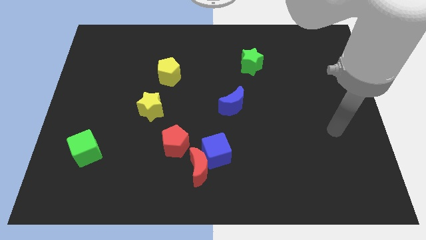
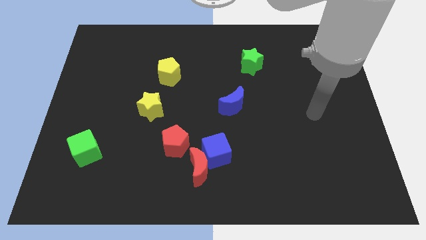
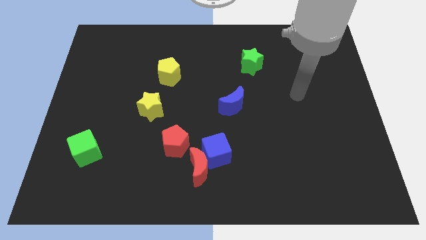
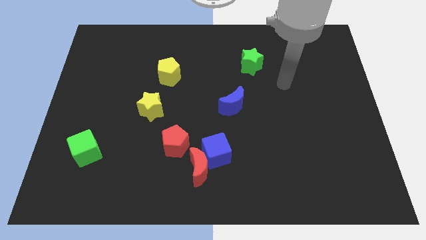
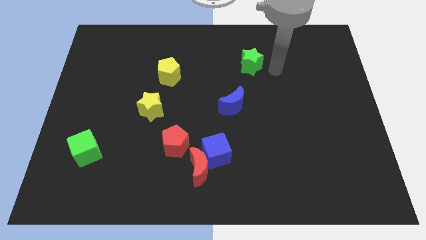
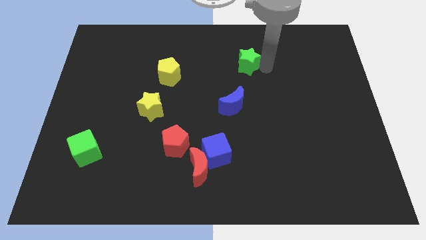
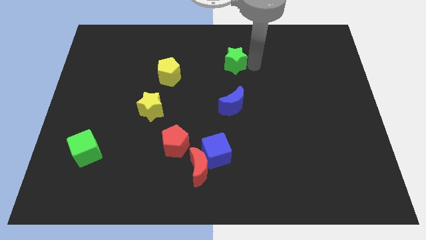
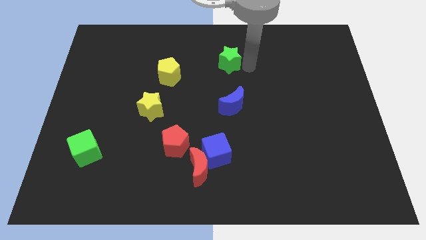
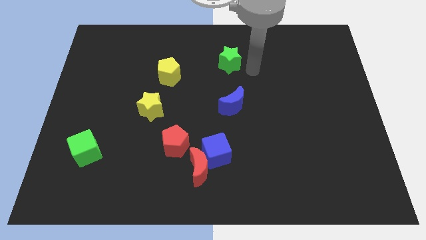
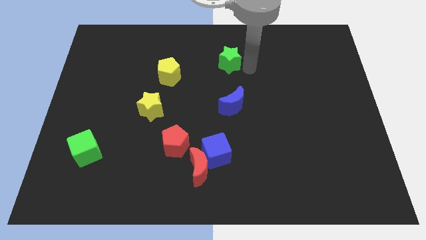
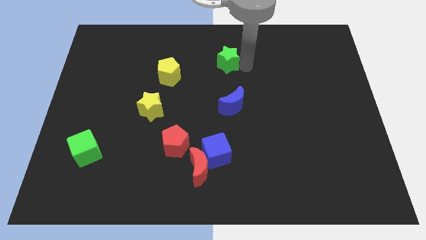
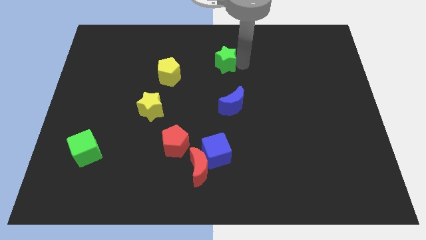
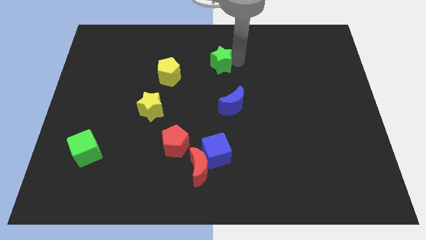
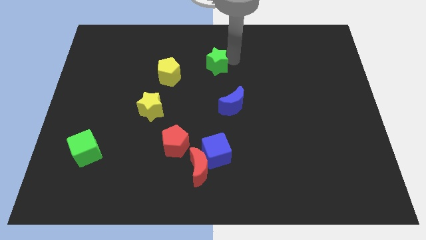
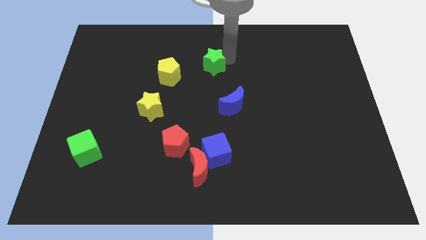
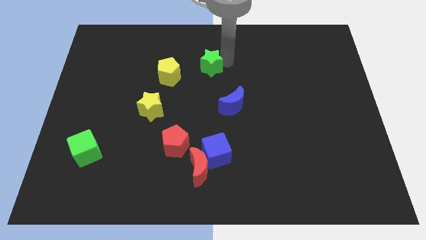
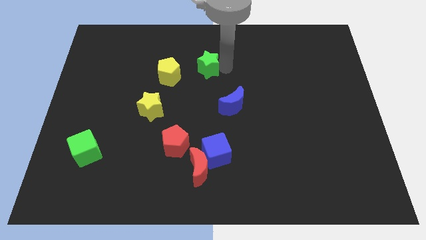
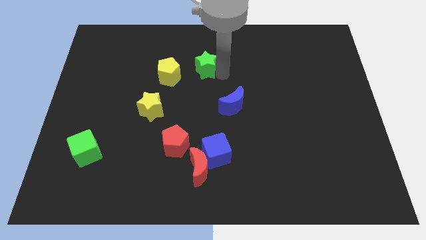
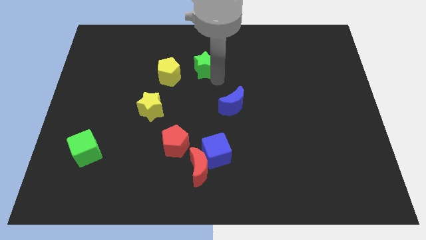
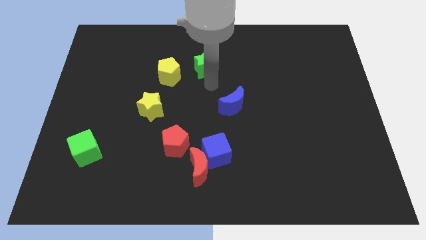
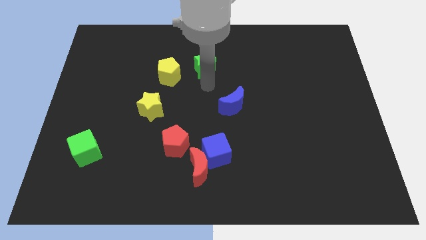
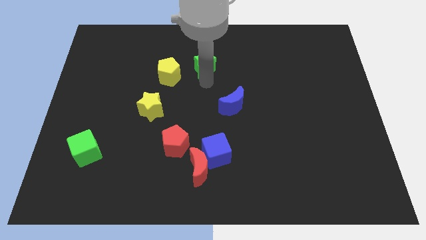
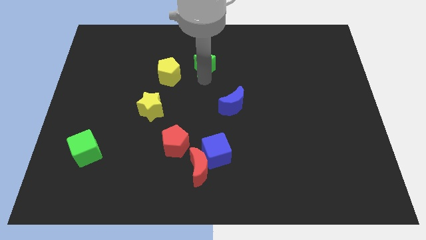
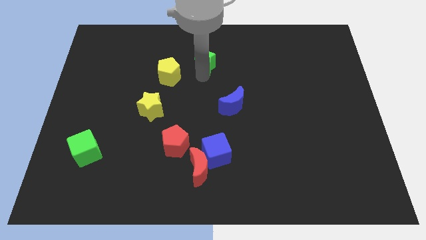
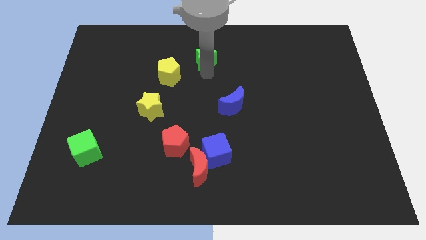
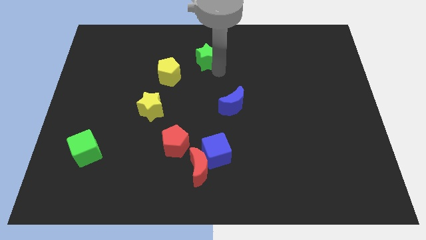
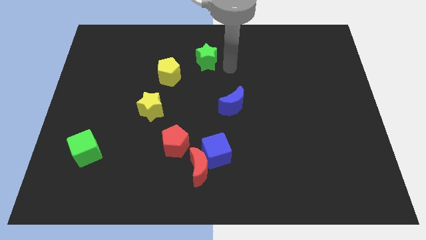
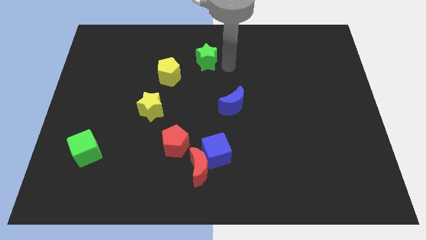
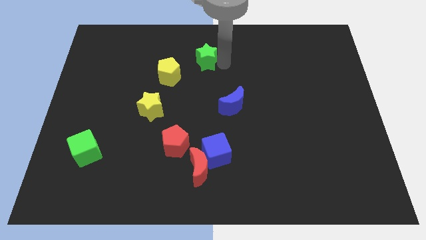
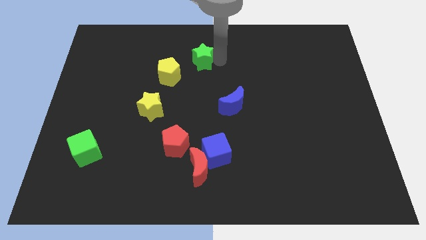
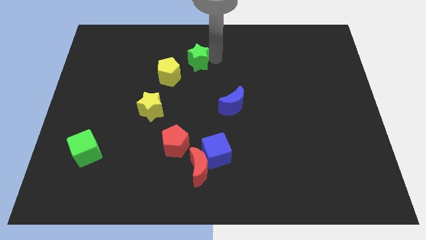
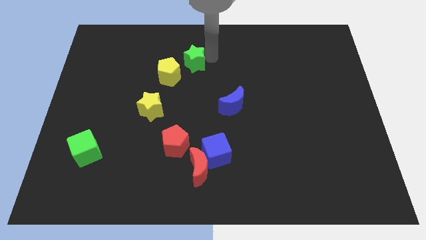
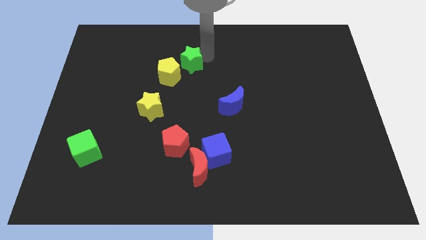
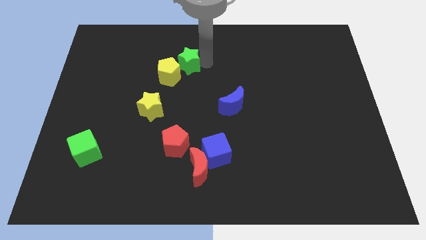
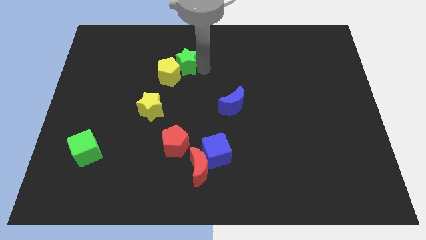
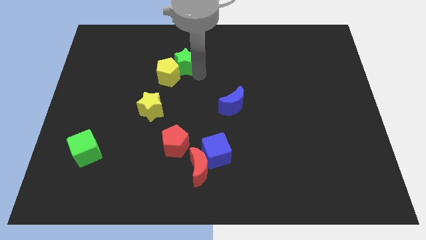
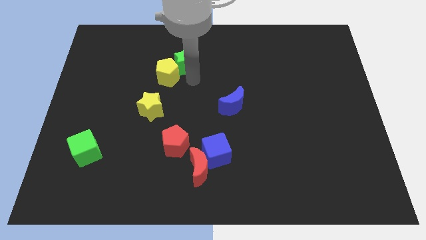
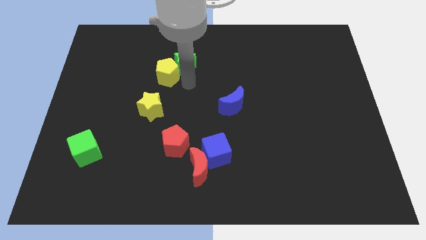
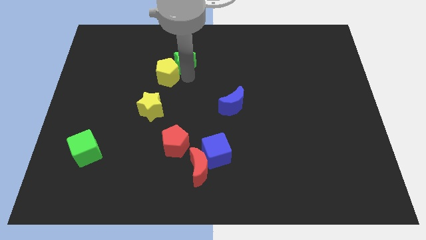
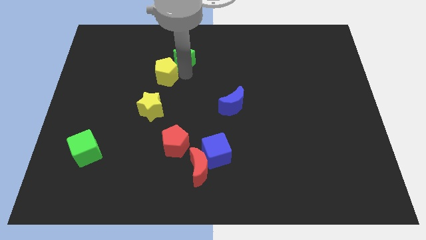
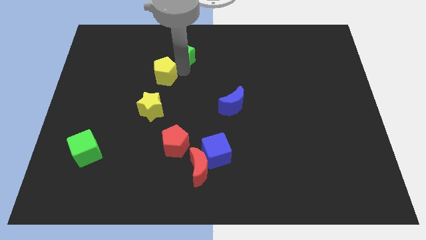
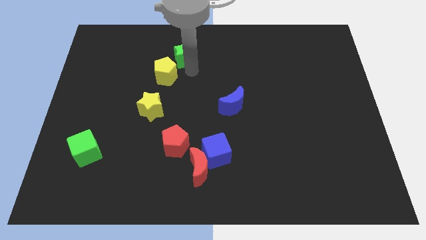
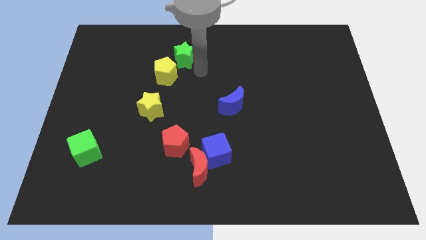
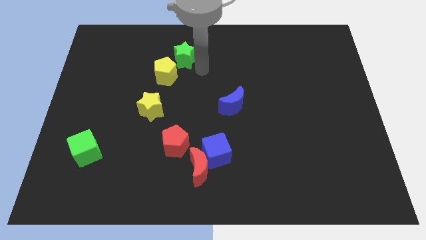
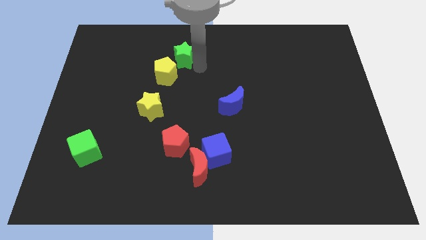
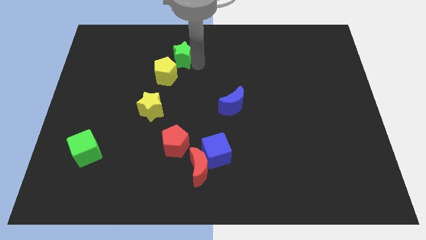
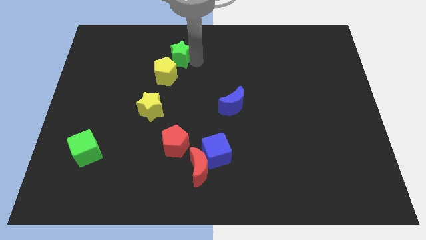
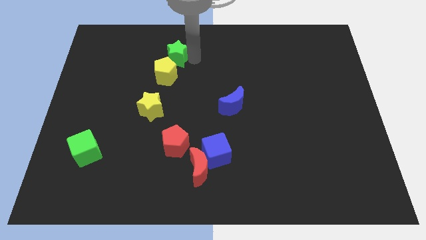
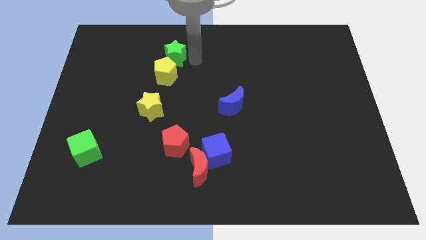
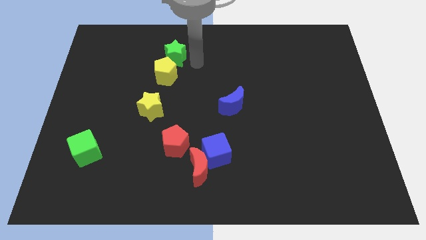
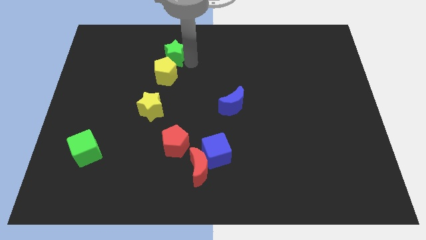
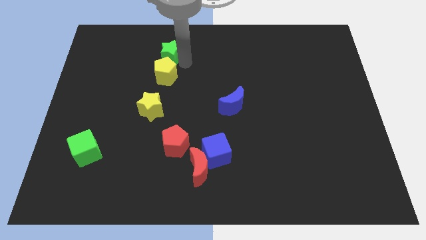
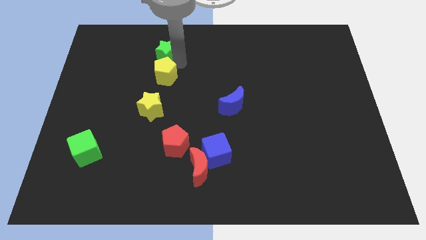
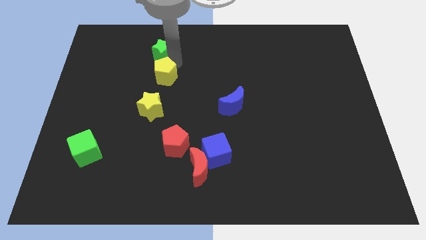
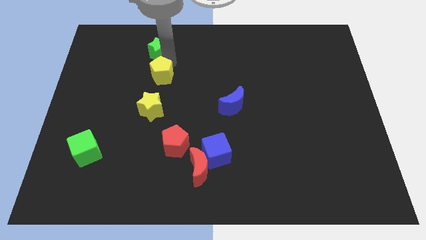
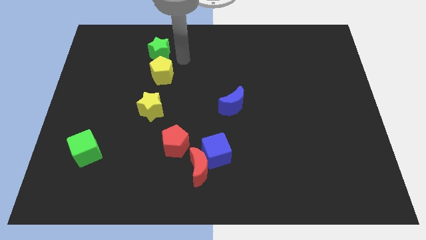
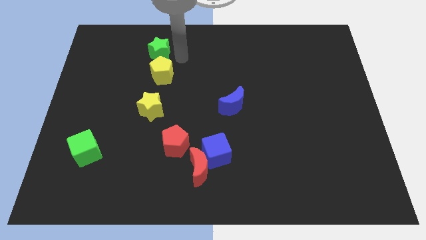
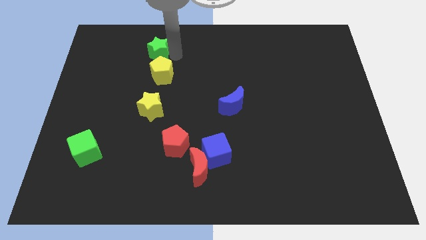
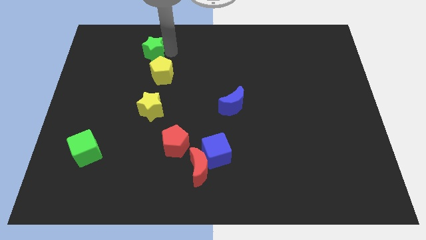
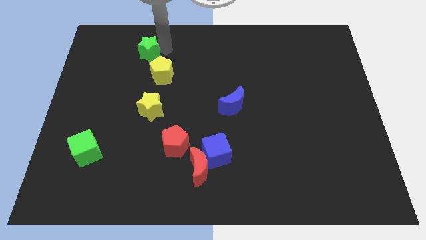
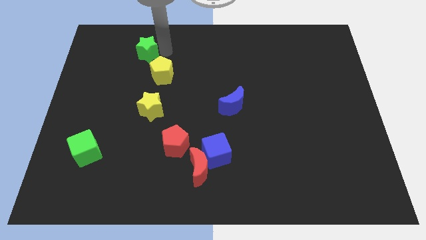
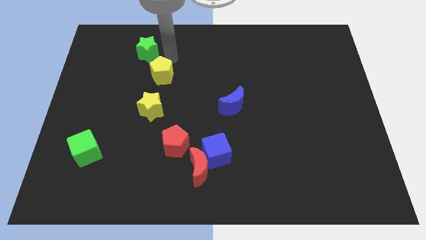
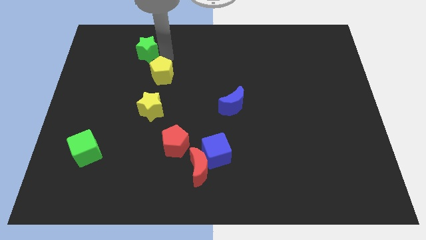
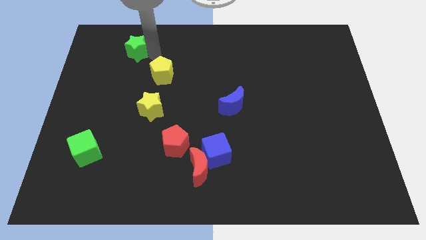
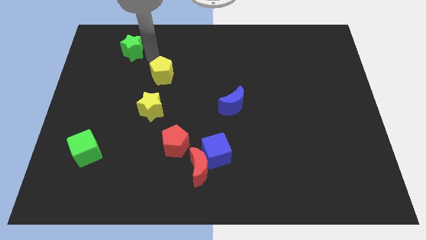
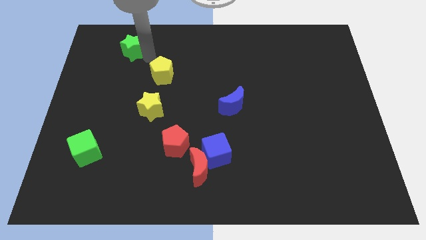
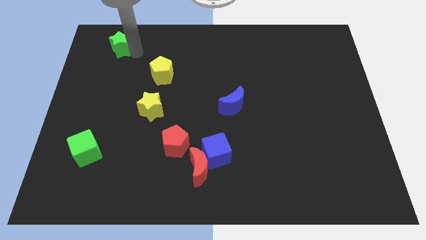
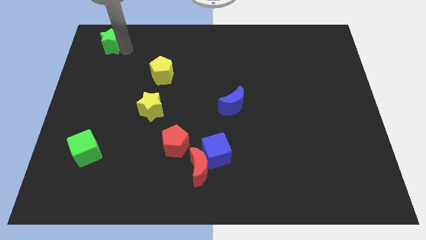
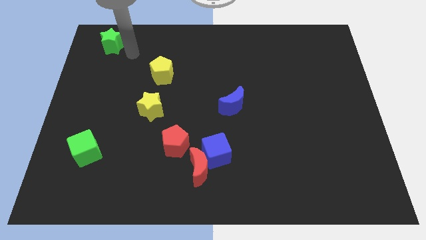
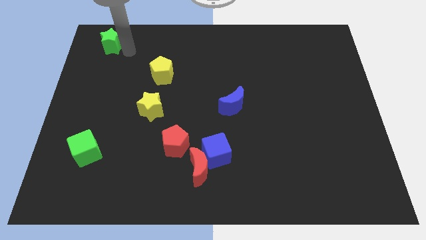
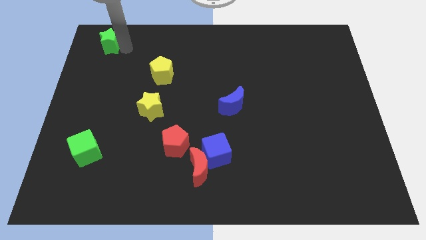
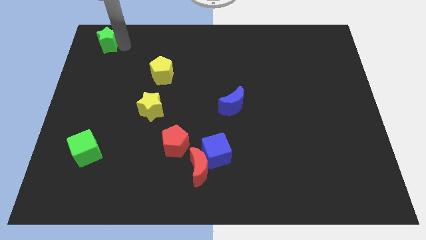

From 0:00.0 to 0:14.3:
move the green star to the top left corner
